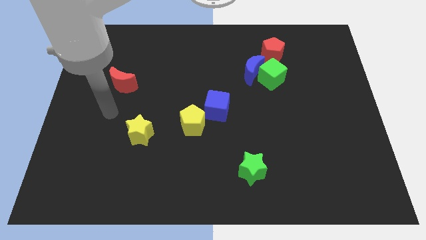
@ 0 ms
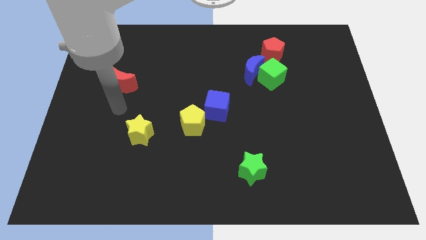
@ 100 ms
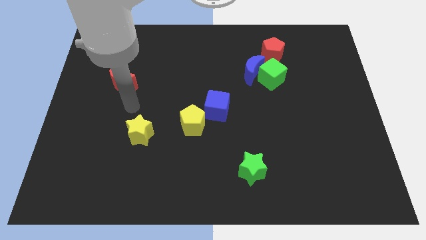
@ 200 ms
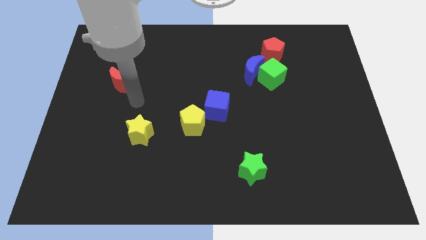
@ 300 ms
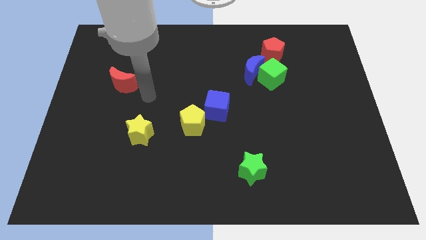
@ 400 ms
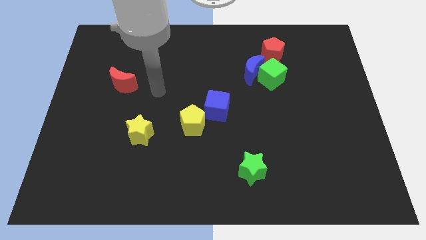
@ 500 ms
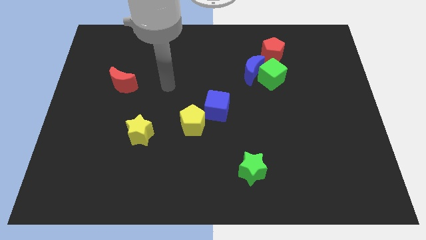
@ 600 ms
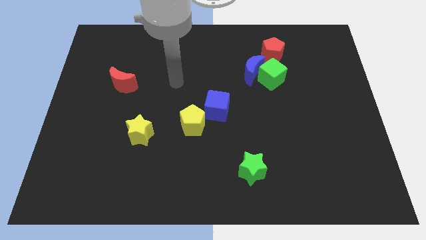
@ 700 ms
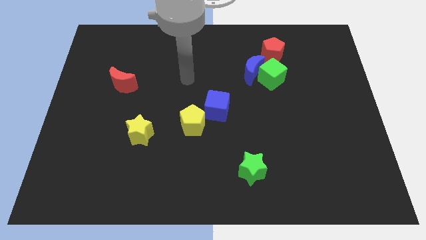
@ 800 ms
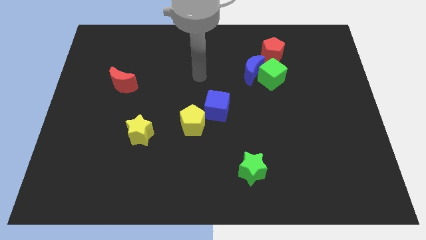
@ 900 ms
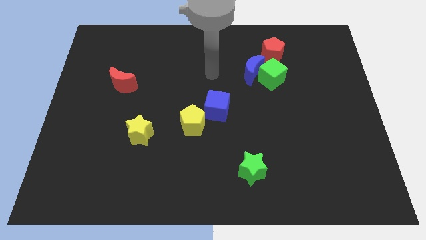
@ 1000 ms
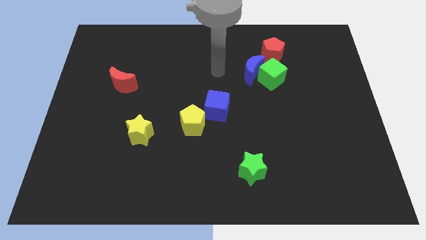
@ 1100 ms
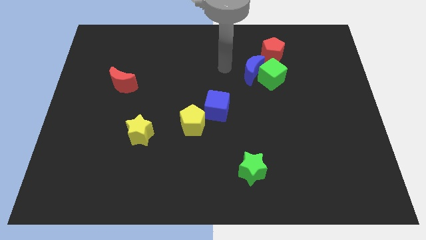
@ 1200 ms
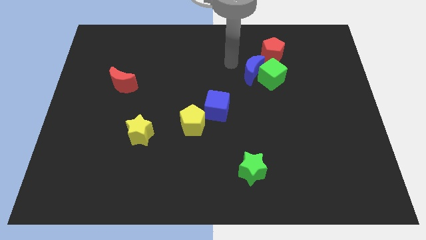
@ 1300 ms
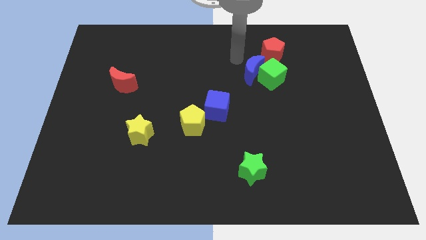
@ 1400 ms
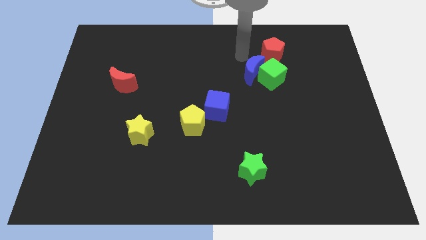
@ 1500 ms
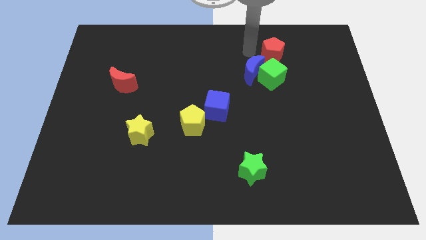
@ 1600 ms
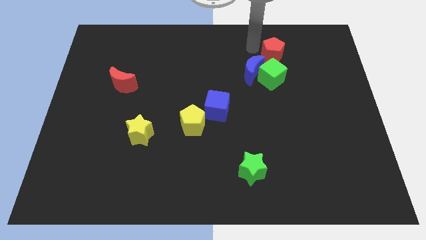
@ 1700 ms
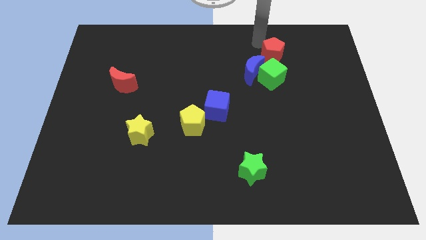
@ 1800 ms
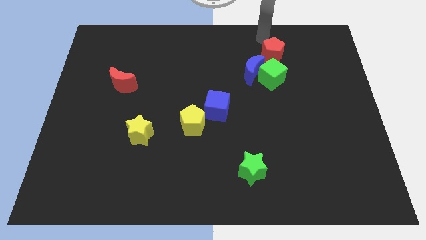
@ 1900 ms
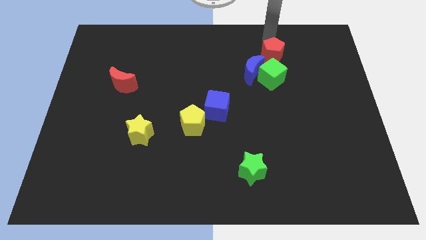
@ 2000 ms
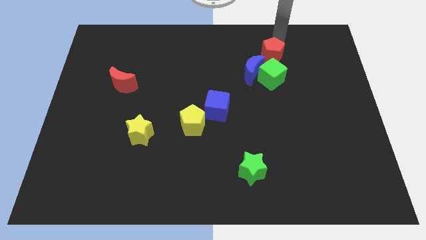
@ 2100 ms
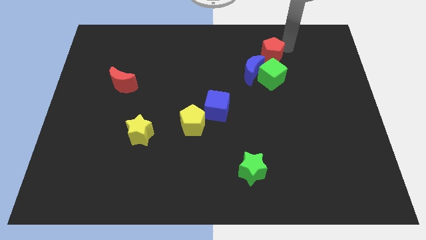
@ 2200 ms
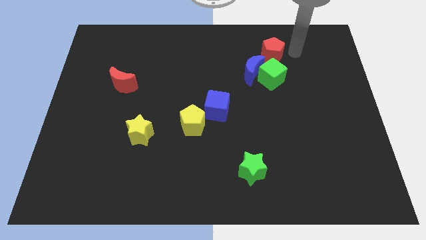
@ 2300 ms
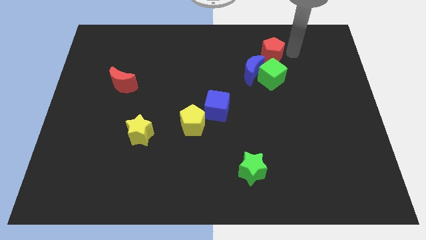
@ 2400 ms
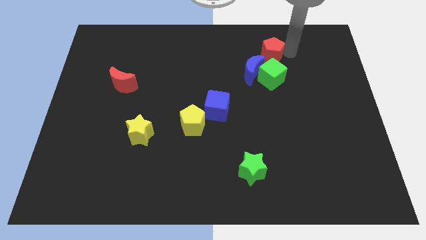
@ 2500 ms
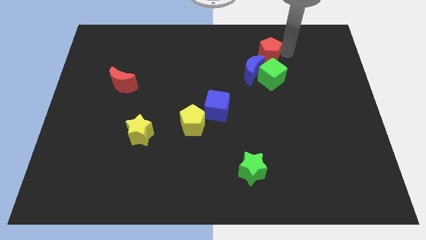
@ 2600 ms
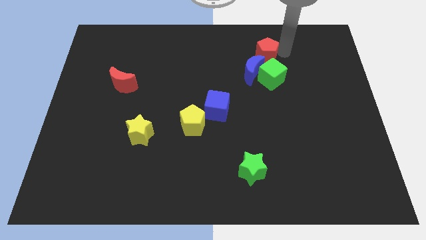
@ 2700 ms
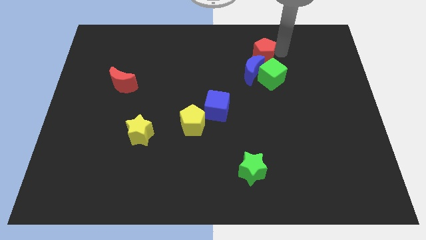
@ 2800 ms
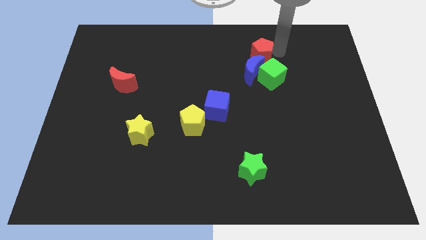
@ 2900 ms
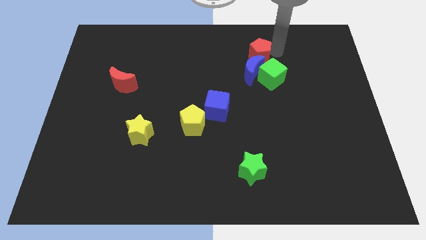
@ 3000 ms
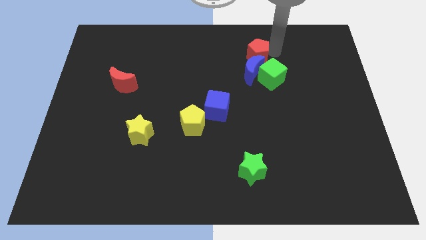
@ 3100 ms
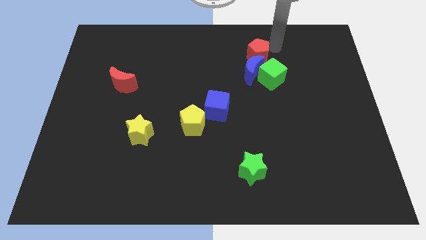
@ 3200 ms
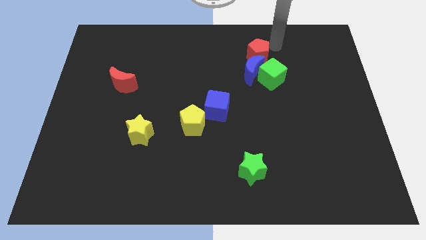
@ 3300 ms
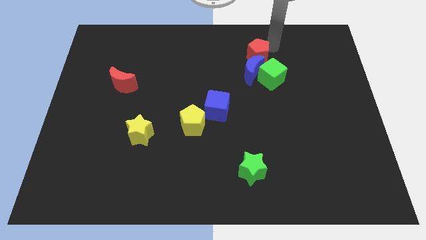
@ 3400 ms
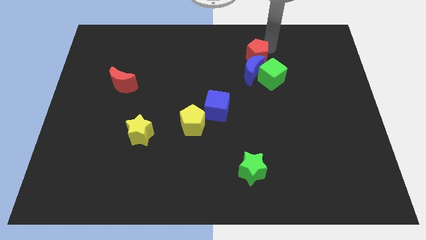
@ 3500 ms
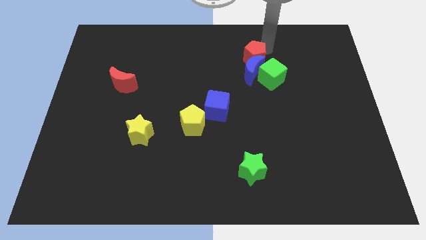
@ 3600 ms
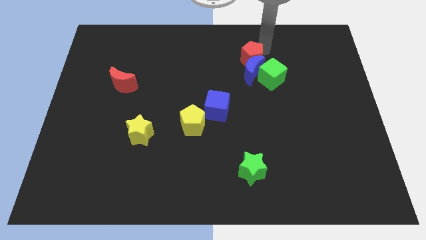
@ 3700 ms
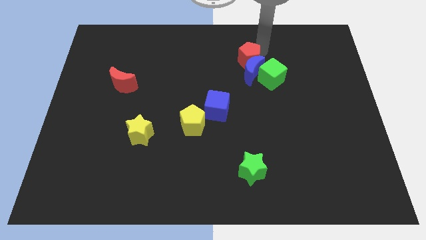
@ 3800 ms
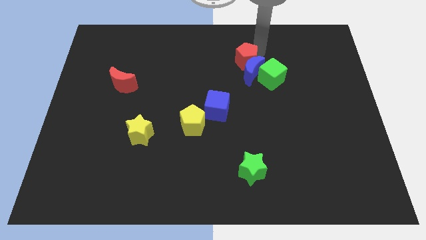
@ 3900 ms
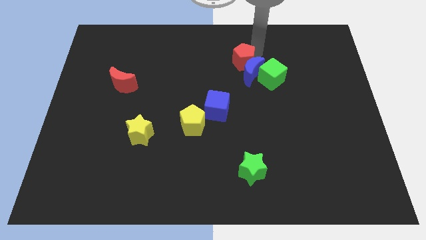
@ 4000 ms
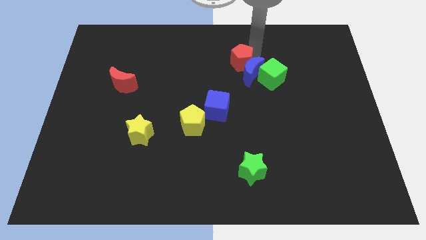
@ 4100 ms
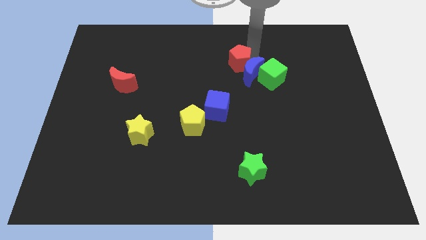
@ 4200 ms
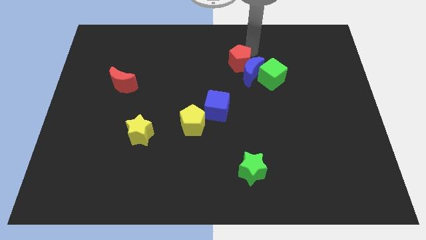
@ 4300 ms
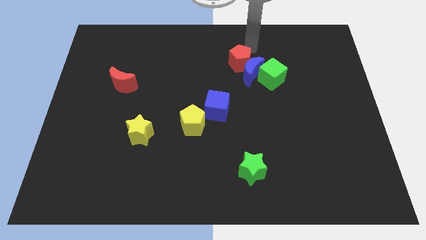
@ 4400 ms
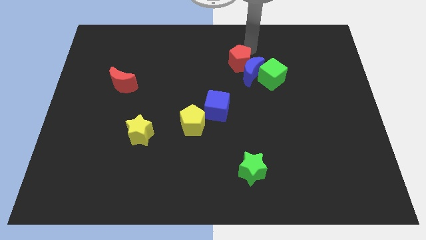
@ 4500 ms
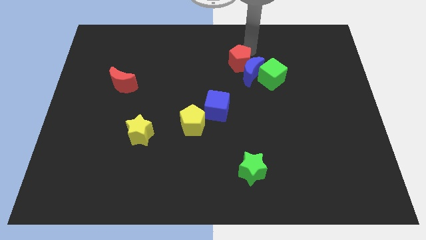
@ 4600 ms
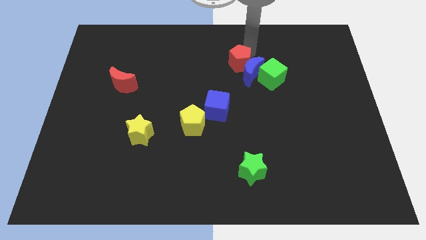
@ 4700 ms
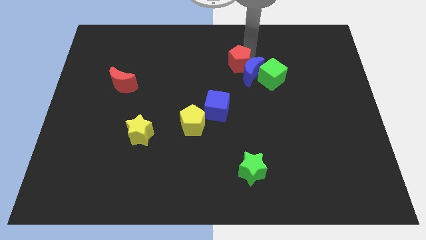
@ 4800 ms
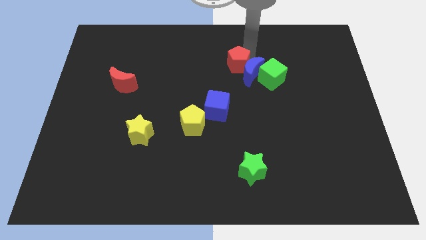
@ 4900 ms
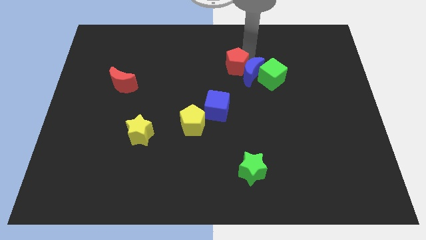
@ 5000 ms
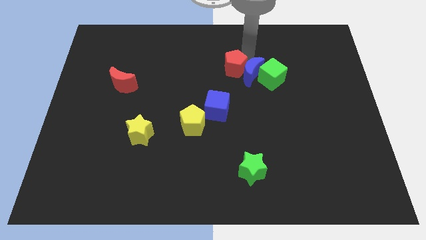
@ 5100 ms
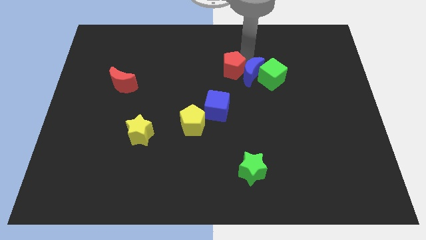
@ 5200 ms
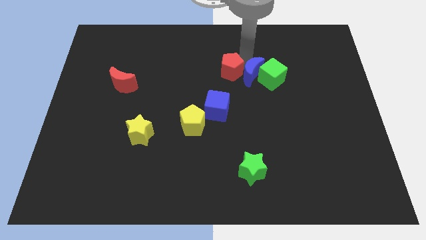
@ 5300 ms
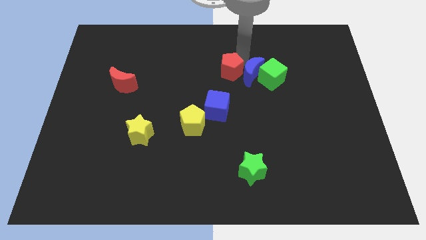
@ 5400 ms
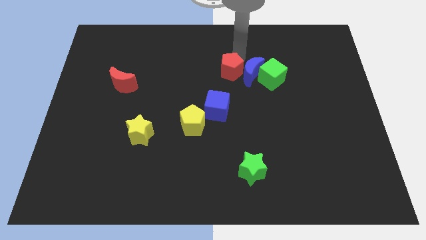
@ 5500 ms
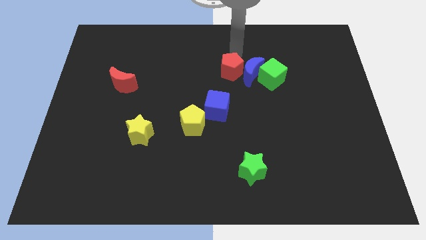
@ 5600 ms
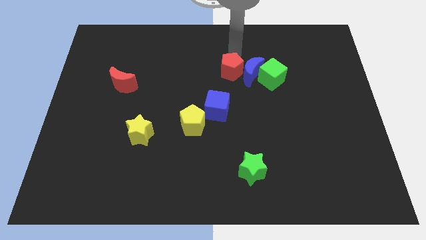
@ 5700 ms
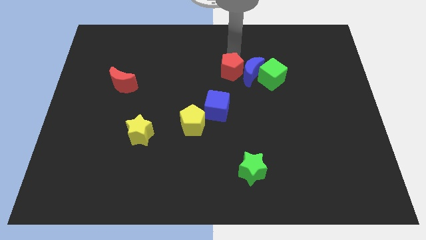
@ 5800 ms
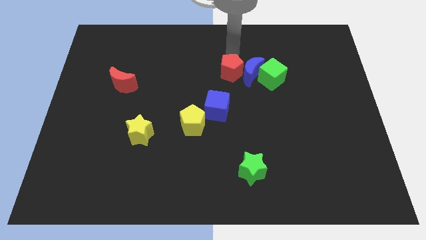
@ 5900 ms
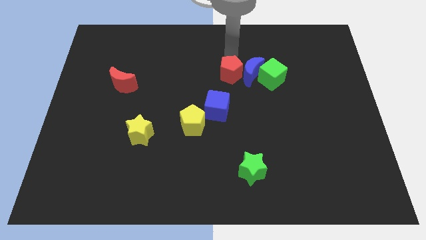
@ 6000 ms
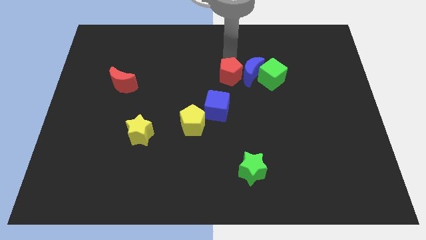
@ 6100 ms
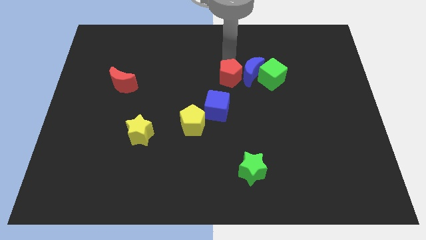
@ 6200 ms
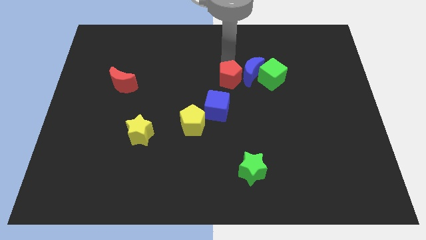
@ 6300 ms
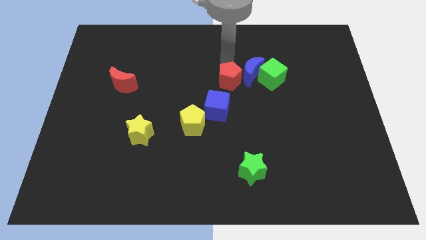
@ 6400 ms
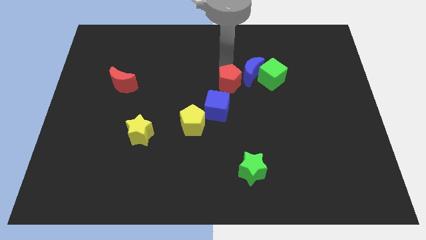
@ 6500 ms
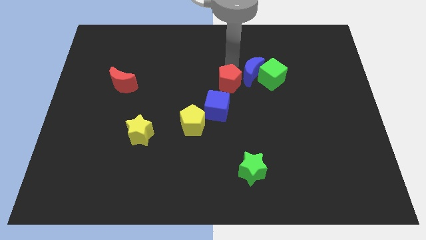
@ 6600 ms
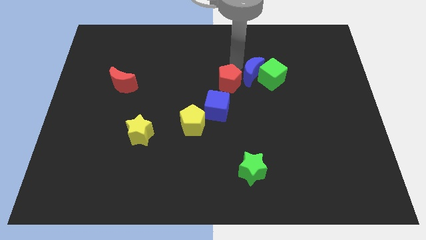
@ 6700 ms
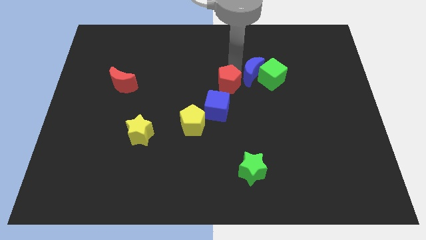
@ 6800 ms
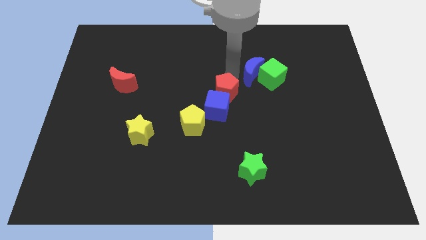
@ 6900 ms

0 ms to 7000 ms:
push the red pentagon to the blue cube

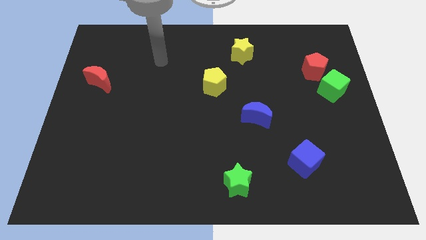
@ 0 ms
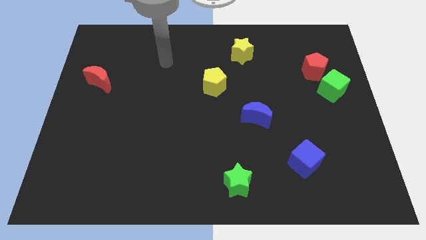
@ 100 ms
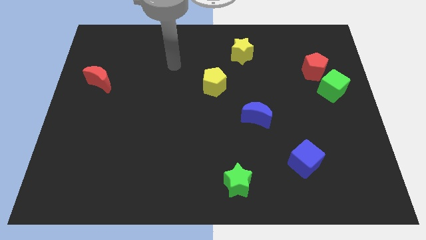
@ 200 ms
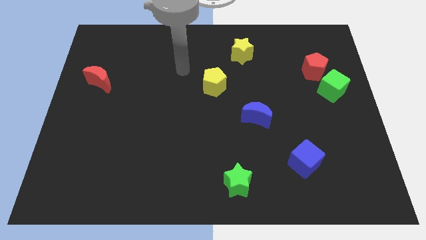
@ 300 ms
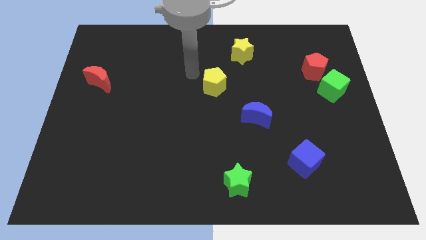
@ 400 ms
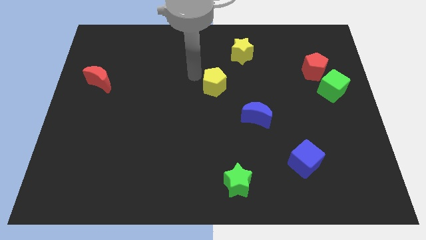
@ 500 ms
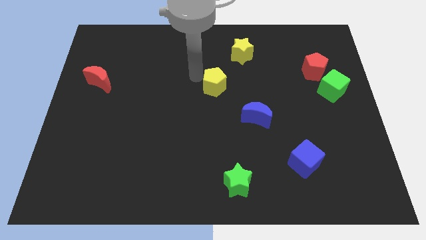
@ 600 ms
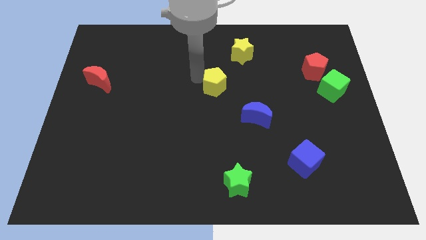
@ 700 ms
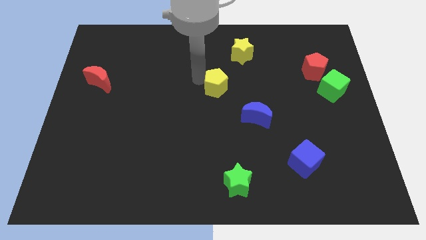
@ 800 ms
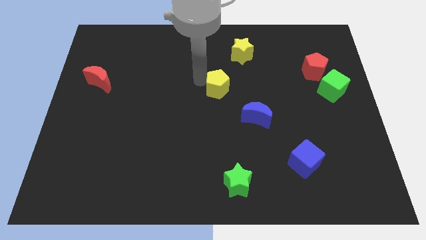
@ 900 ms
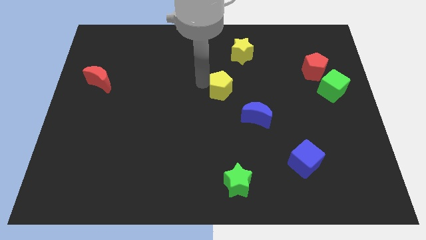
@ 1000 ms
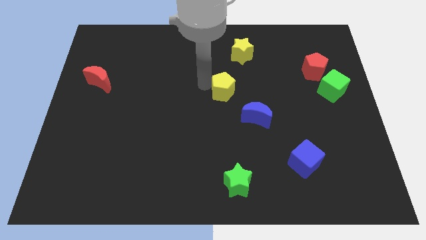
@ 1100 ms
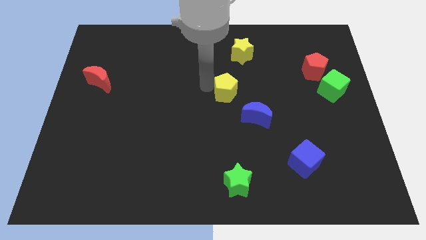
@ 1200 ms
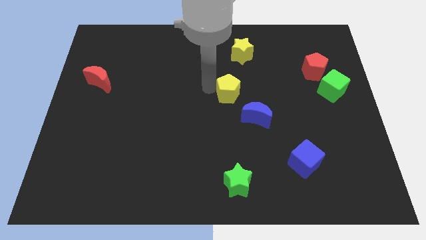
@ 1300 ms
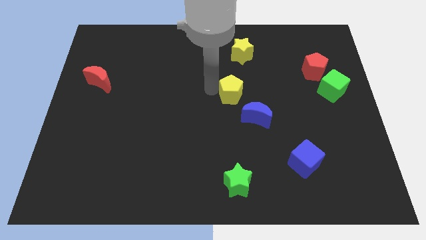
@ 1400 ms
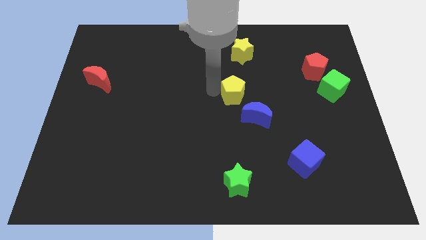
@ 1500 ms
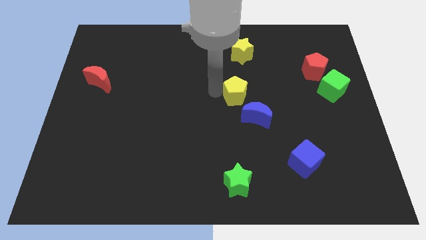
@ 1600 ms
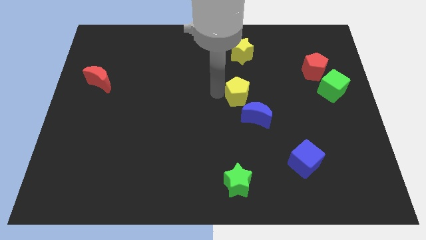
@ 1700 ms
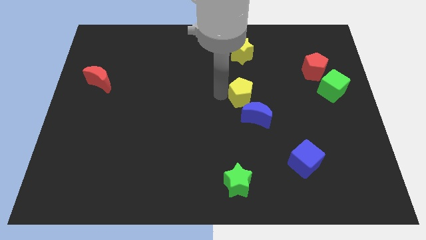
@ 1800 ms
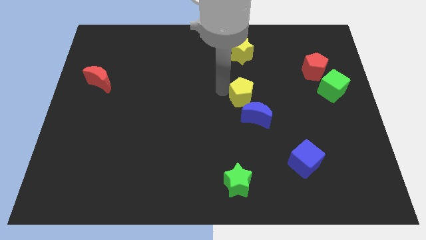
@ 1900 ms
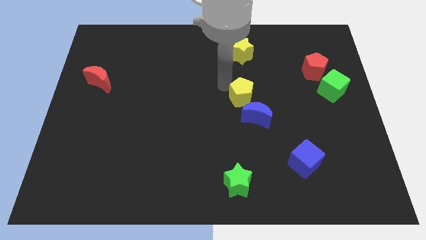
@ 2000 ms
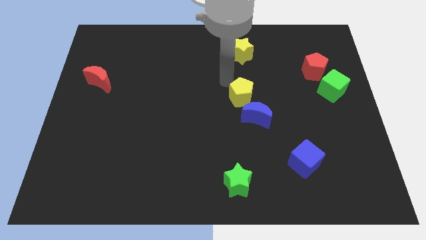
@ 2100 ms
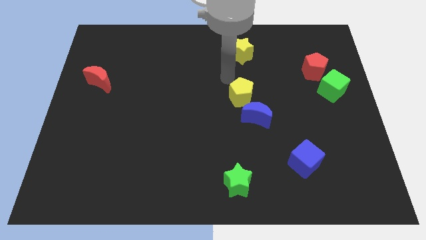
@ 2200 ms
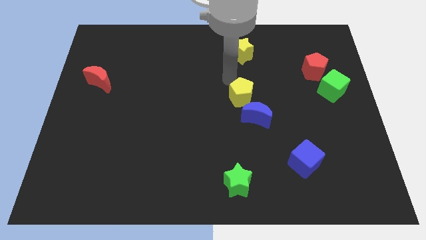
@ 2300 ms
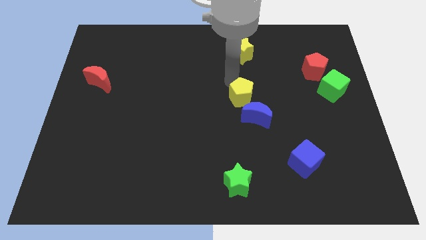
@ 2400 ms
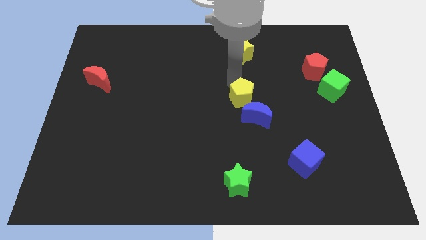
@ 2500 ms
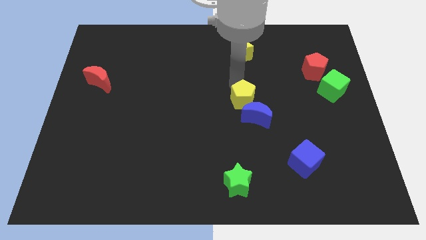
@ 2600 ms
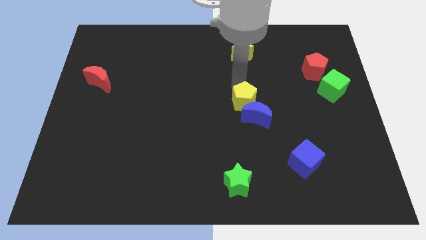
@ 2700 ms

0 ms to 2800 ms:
put the yellow pentagon towards the blue moon
